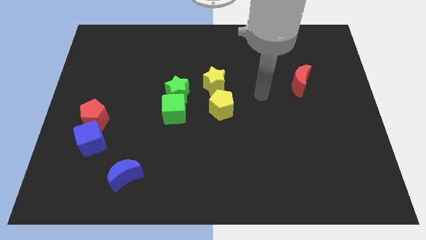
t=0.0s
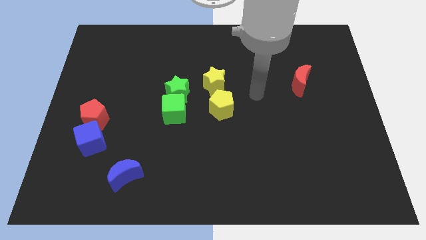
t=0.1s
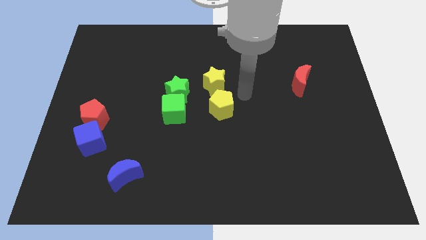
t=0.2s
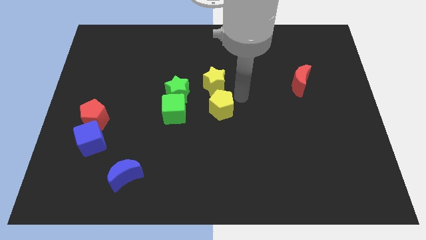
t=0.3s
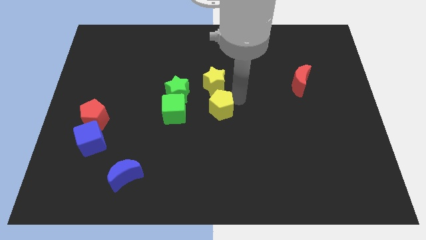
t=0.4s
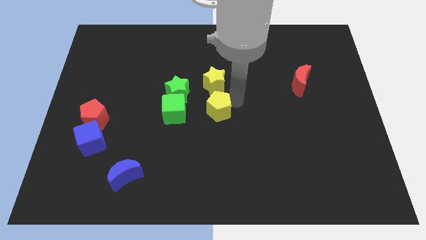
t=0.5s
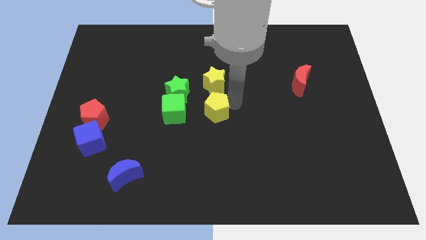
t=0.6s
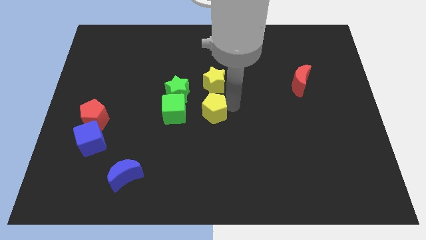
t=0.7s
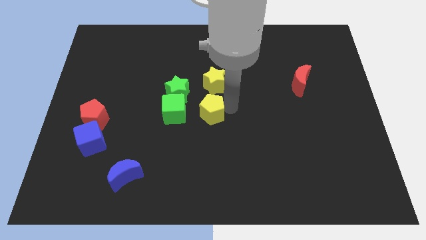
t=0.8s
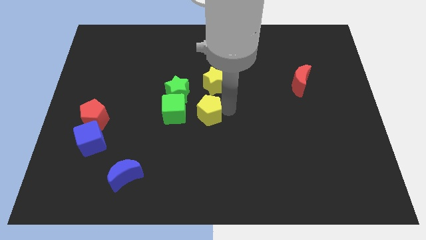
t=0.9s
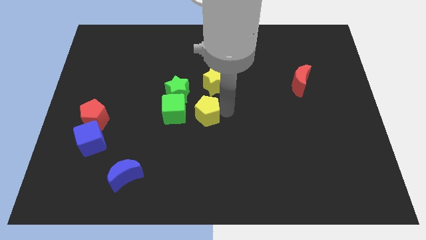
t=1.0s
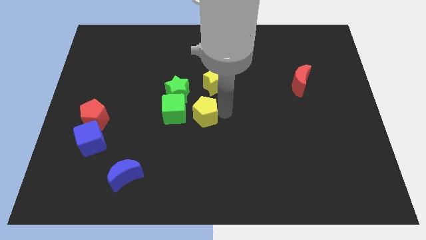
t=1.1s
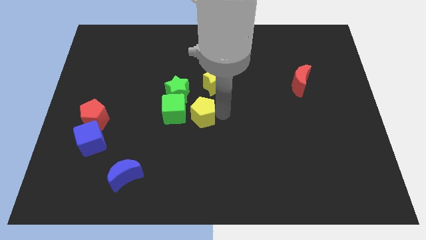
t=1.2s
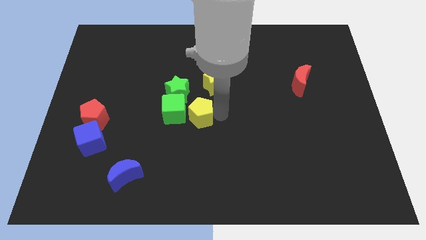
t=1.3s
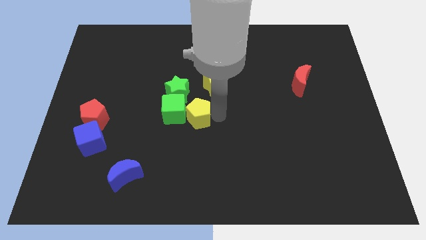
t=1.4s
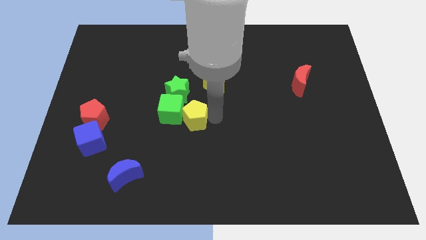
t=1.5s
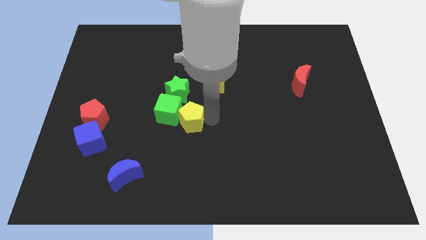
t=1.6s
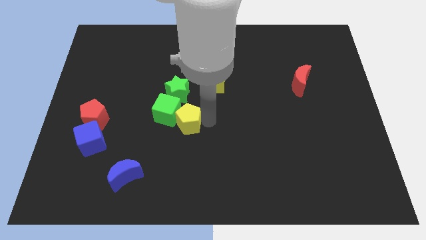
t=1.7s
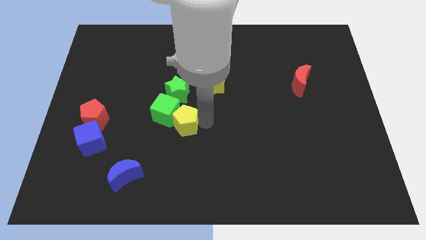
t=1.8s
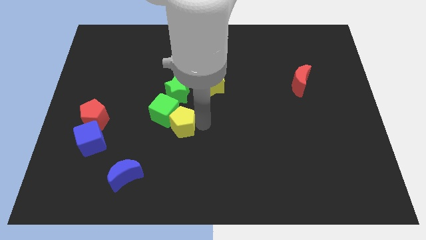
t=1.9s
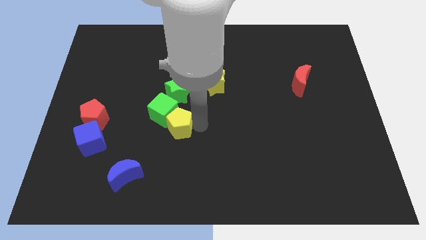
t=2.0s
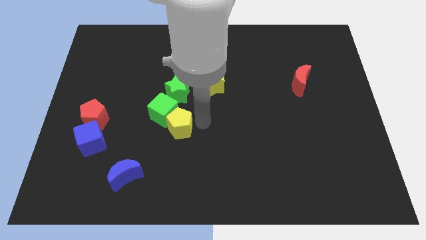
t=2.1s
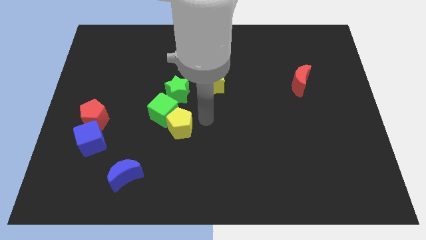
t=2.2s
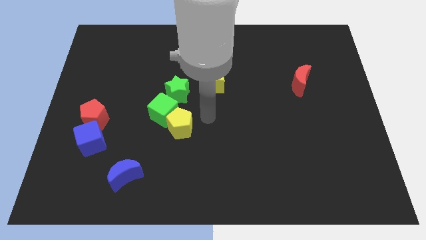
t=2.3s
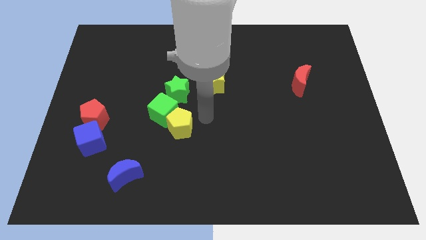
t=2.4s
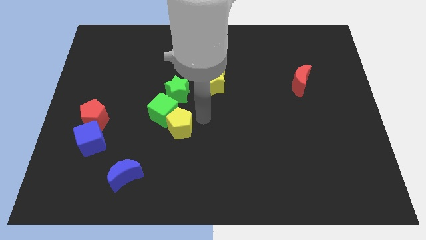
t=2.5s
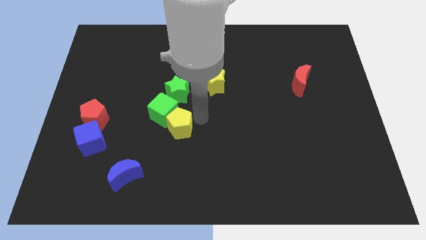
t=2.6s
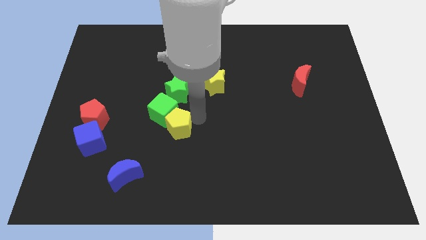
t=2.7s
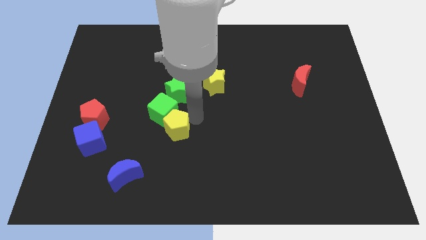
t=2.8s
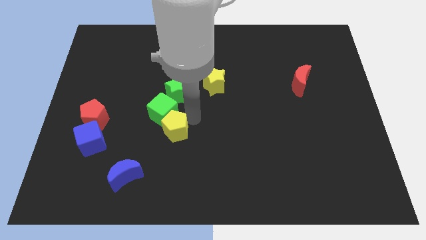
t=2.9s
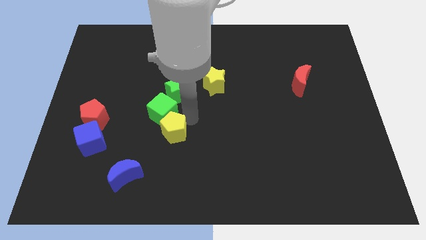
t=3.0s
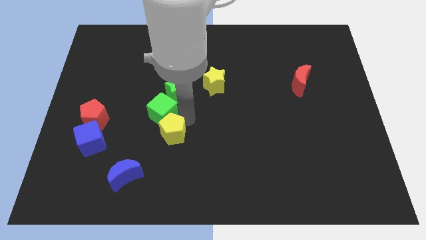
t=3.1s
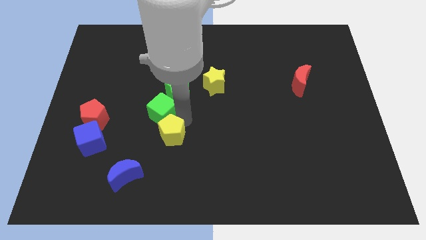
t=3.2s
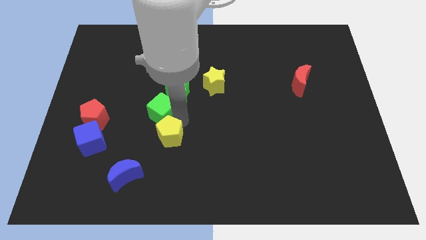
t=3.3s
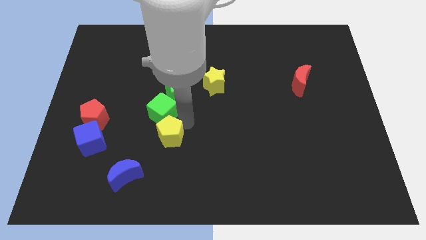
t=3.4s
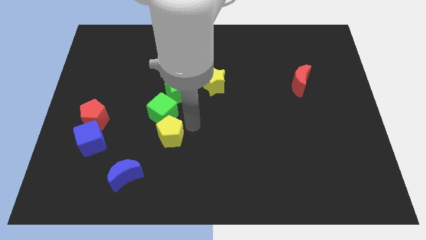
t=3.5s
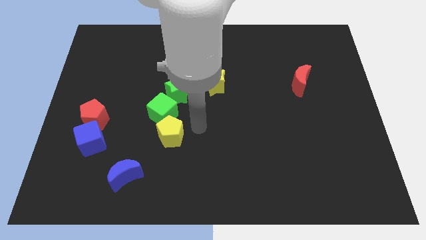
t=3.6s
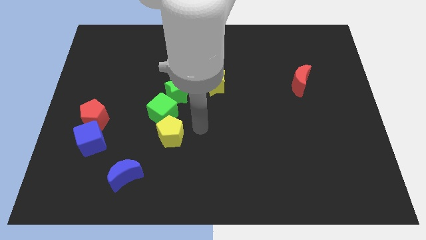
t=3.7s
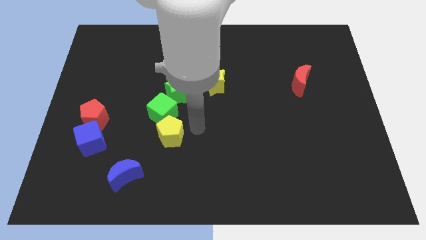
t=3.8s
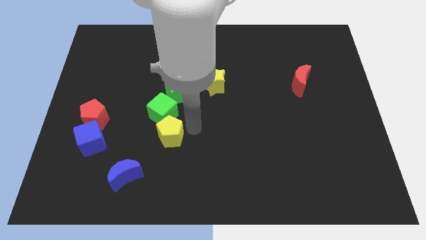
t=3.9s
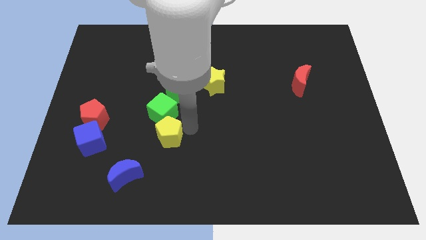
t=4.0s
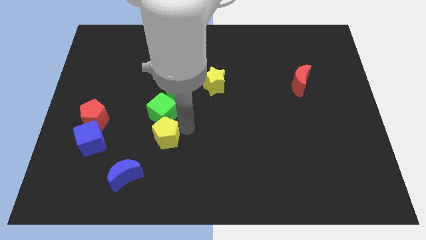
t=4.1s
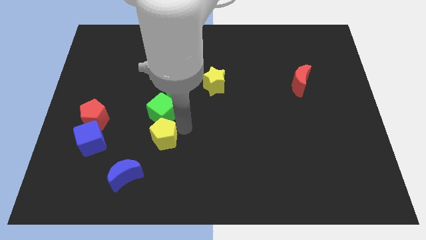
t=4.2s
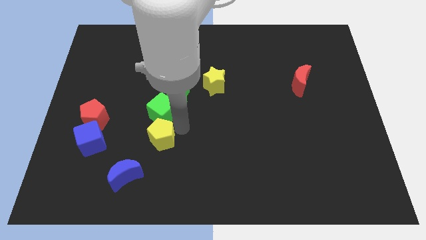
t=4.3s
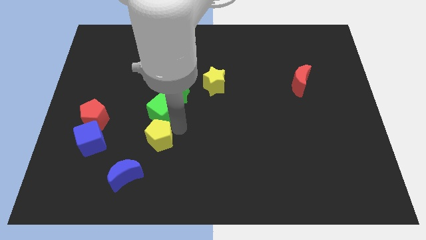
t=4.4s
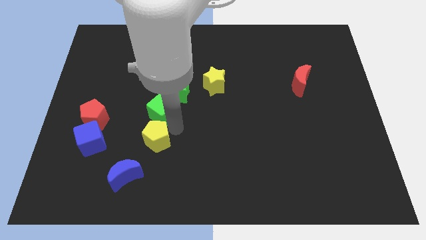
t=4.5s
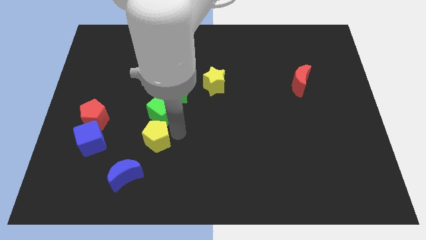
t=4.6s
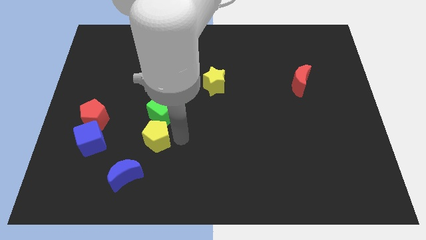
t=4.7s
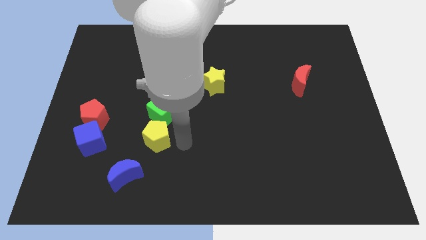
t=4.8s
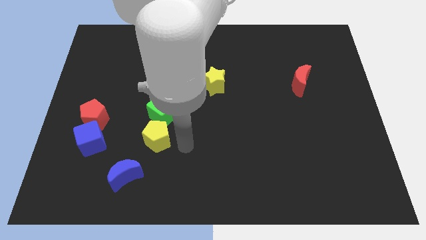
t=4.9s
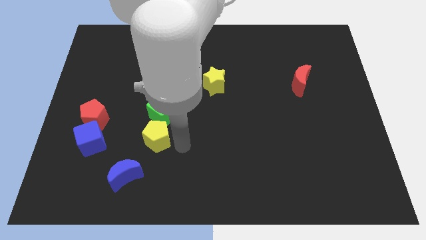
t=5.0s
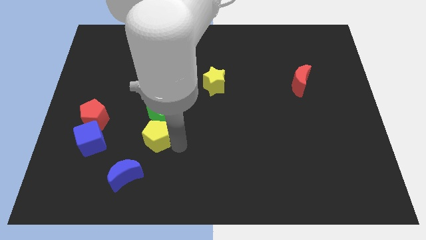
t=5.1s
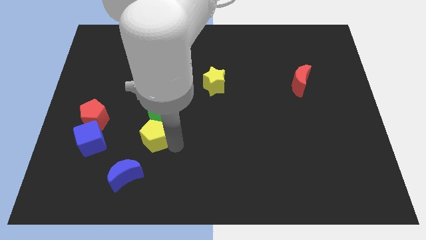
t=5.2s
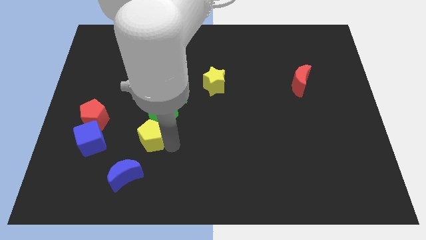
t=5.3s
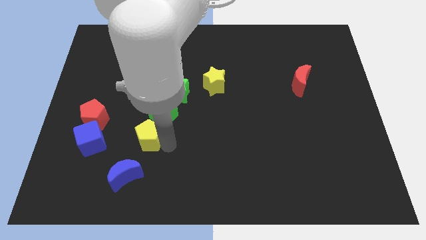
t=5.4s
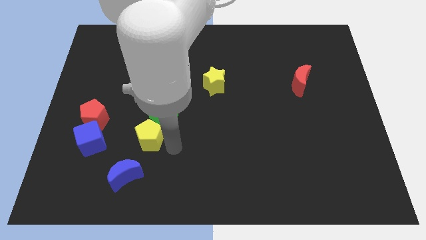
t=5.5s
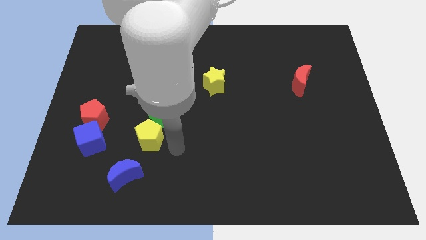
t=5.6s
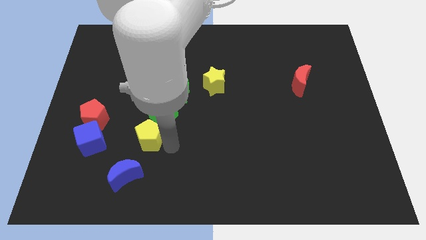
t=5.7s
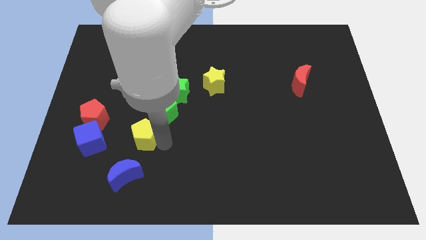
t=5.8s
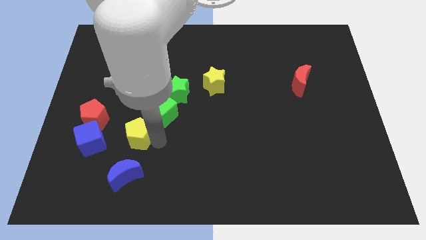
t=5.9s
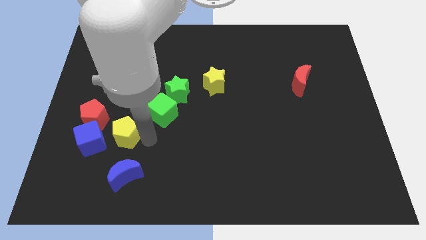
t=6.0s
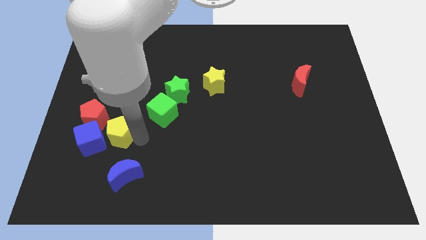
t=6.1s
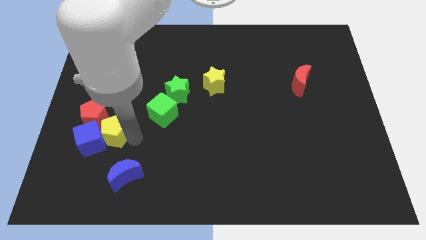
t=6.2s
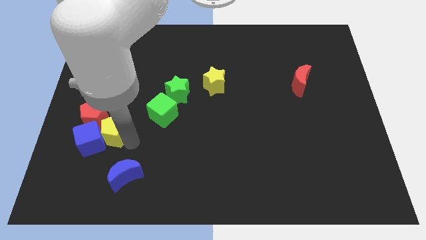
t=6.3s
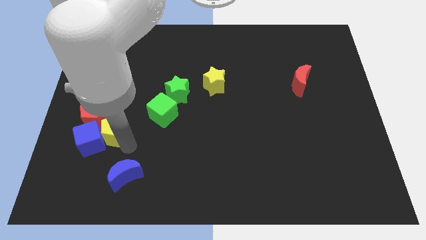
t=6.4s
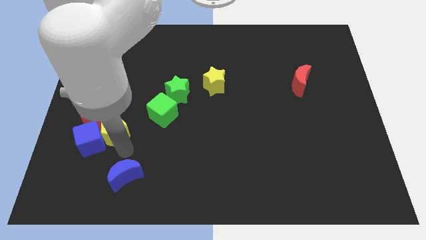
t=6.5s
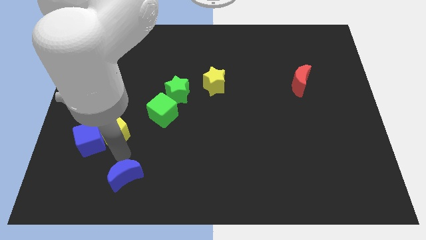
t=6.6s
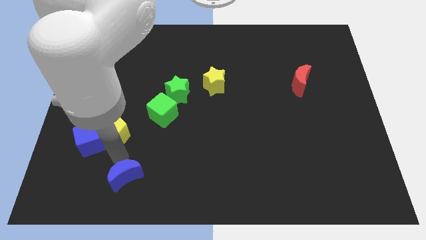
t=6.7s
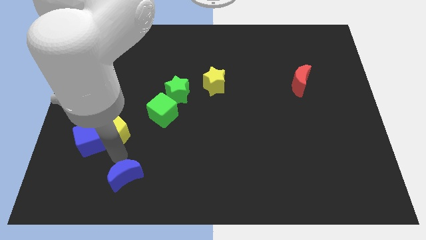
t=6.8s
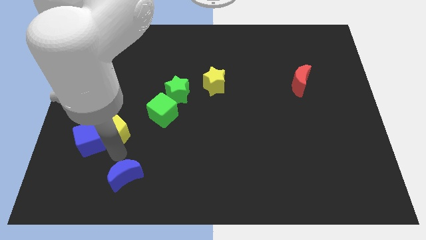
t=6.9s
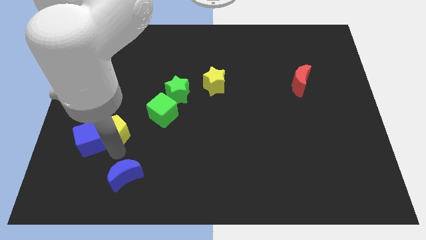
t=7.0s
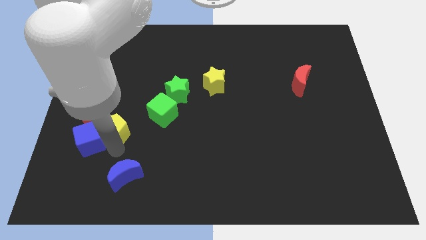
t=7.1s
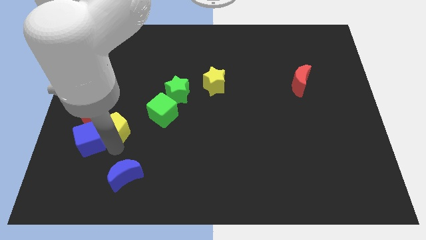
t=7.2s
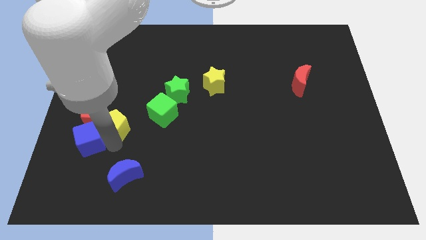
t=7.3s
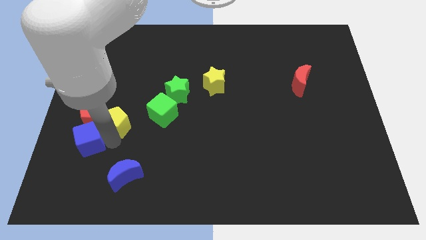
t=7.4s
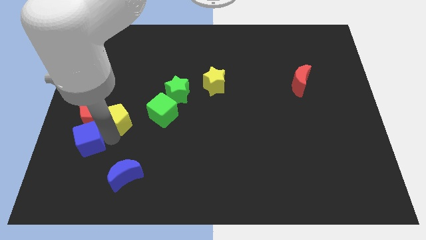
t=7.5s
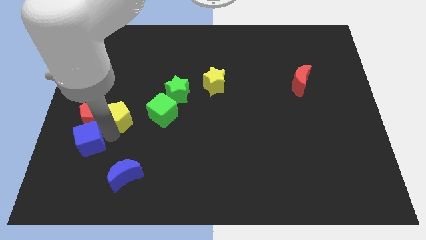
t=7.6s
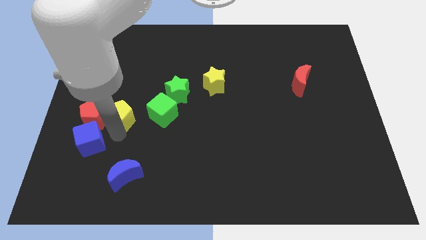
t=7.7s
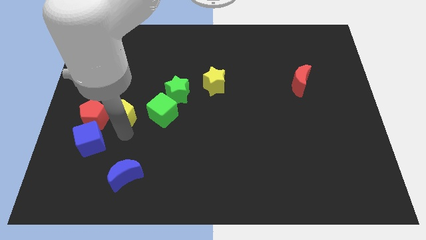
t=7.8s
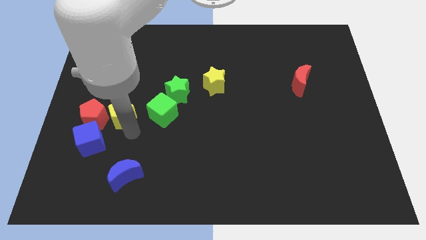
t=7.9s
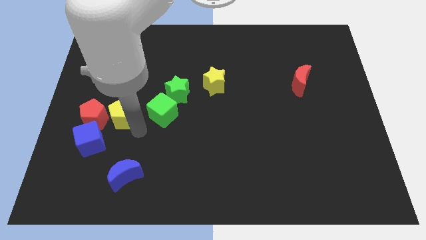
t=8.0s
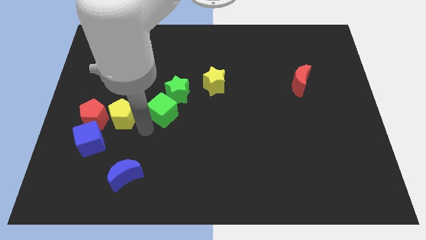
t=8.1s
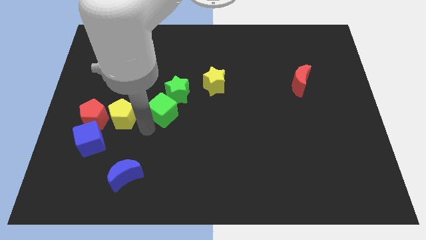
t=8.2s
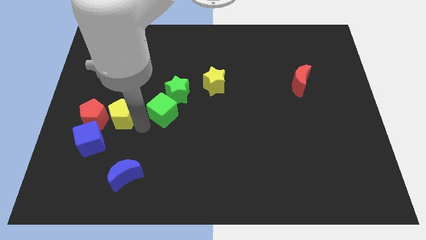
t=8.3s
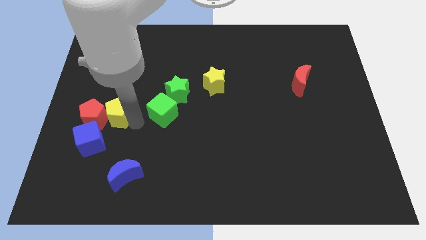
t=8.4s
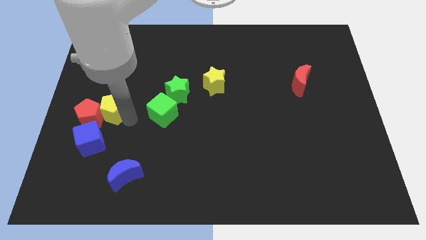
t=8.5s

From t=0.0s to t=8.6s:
put the yellow pentagon to the top side of the blue cube
